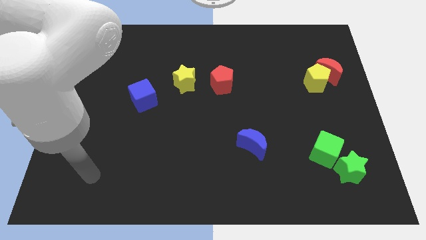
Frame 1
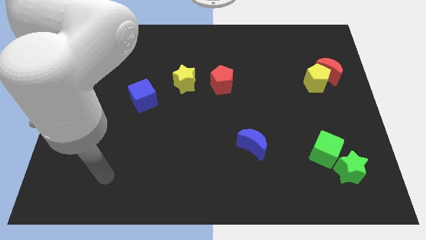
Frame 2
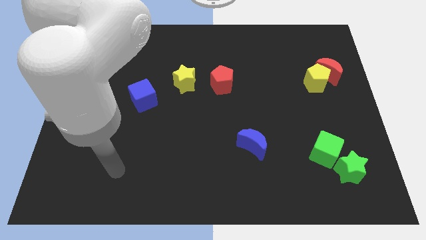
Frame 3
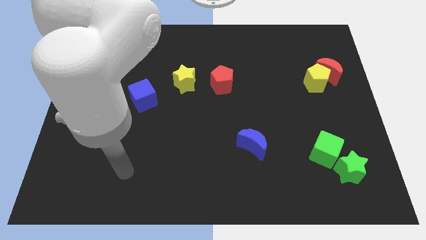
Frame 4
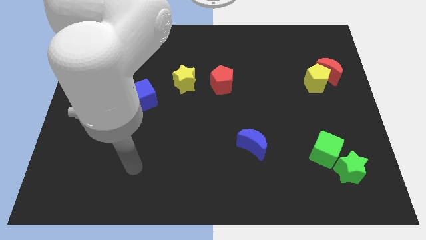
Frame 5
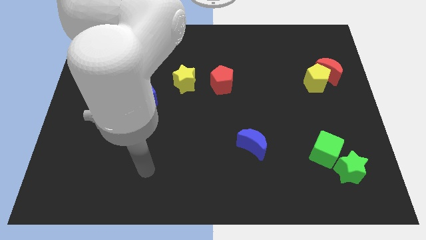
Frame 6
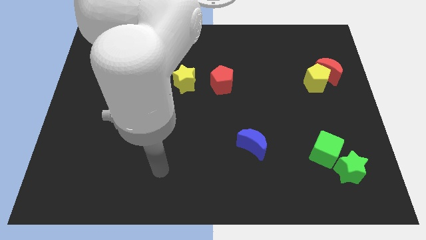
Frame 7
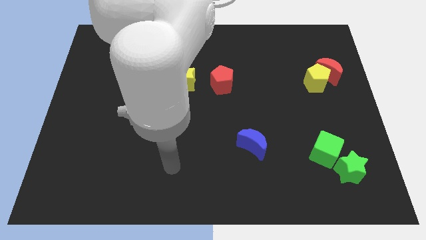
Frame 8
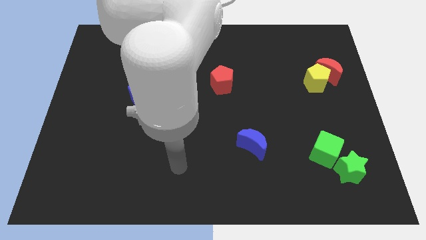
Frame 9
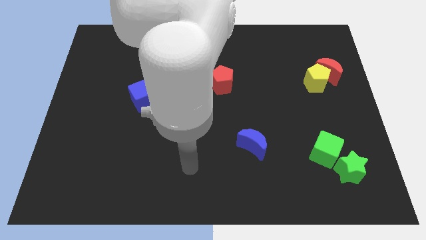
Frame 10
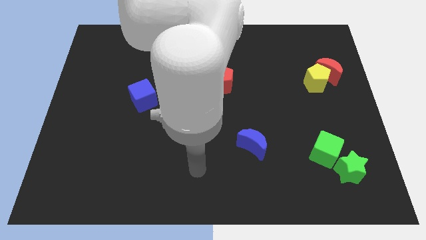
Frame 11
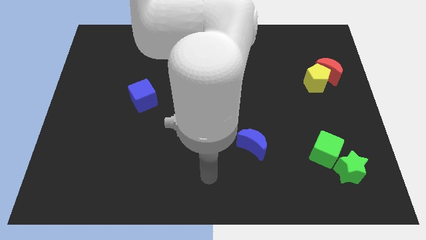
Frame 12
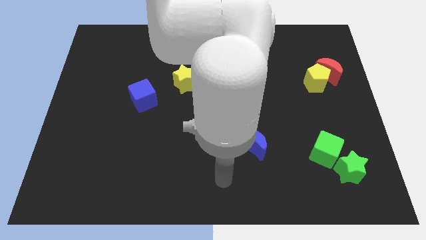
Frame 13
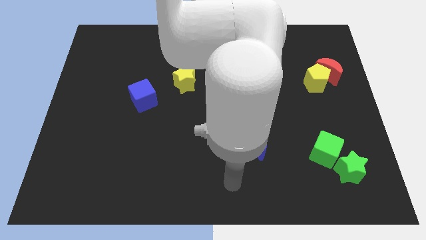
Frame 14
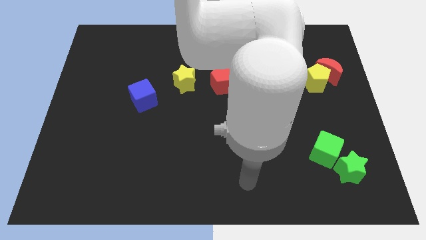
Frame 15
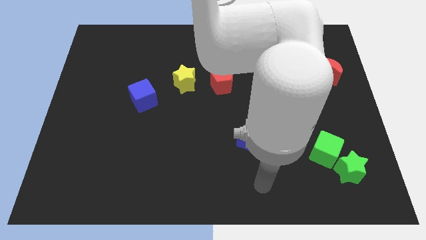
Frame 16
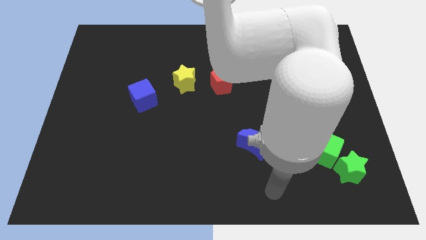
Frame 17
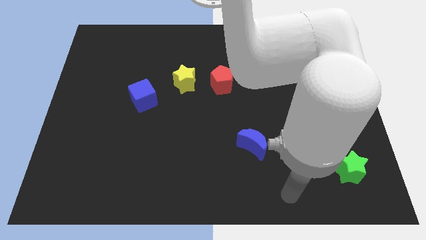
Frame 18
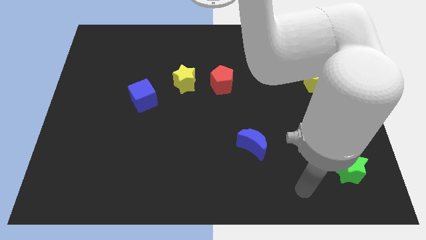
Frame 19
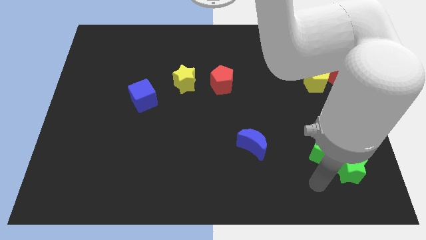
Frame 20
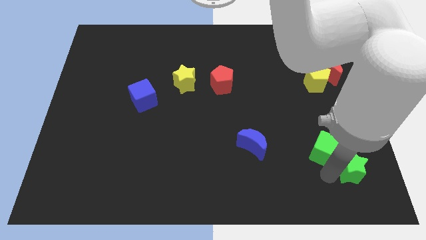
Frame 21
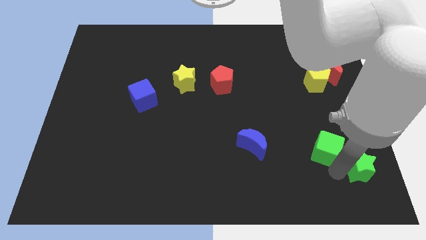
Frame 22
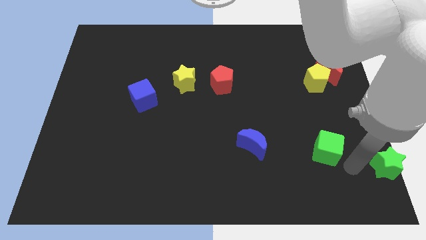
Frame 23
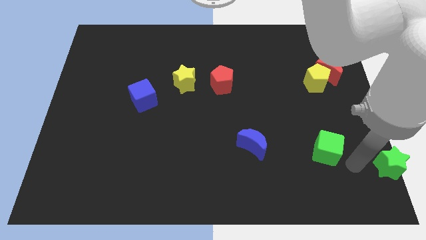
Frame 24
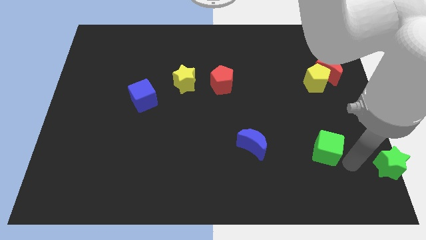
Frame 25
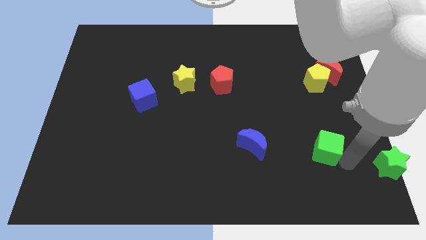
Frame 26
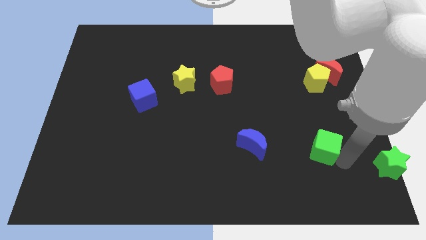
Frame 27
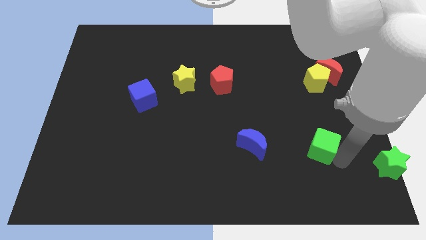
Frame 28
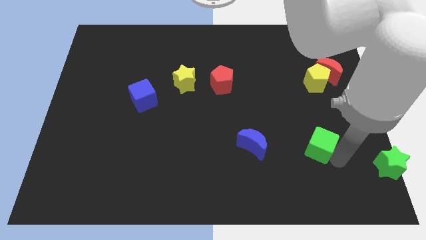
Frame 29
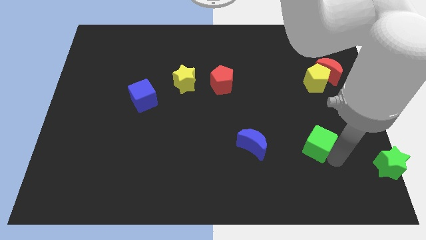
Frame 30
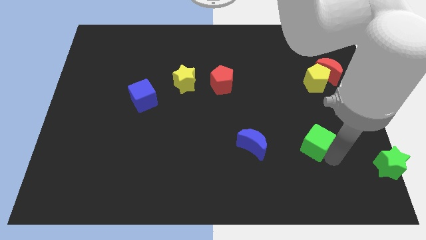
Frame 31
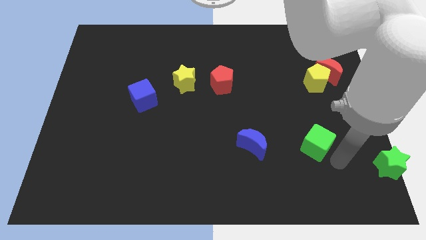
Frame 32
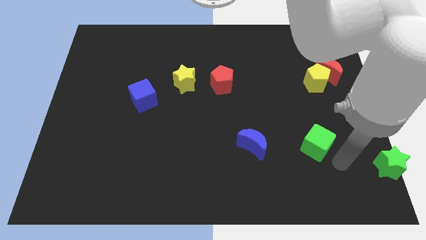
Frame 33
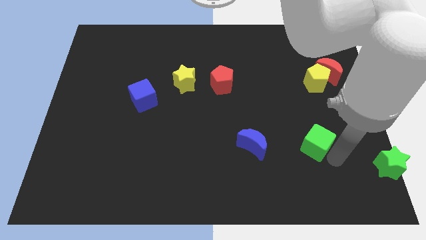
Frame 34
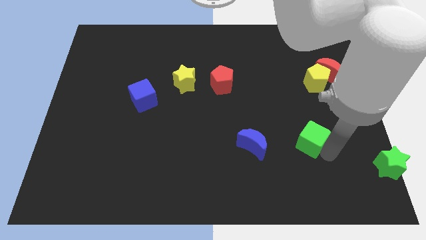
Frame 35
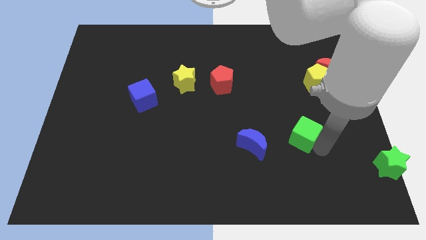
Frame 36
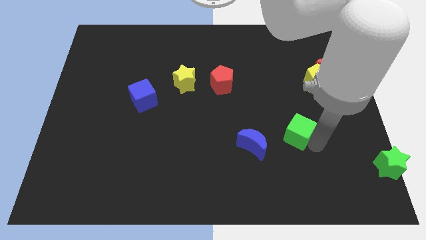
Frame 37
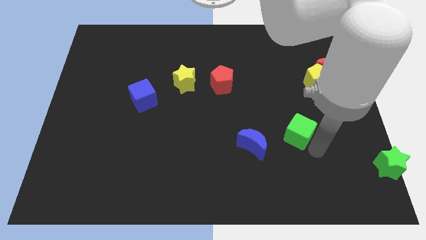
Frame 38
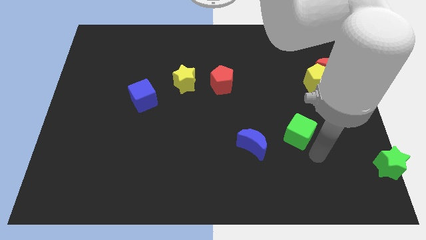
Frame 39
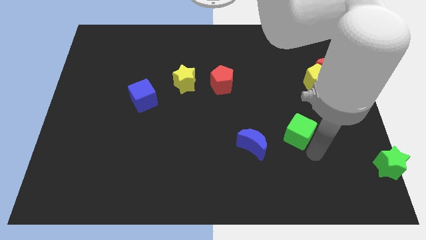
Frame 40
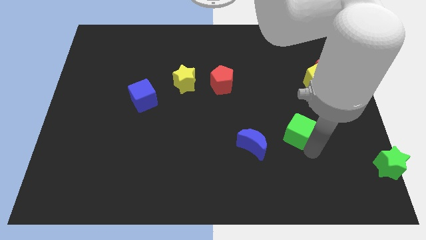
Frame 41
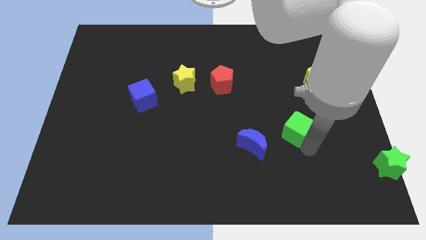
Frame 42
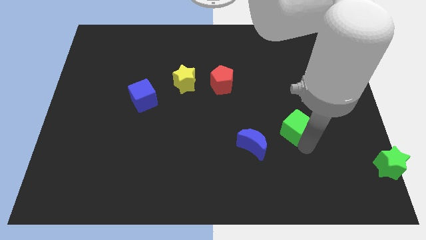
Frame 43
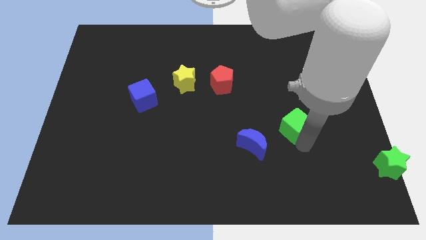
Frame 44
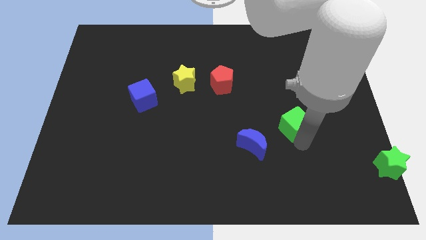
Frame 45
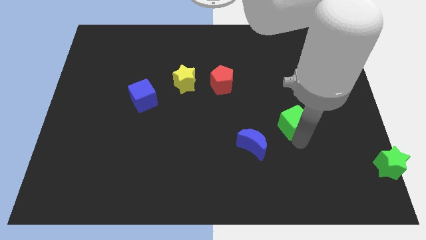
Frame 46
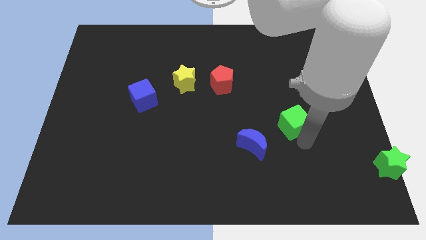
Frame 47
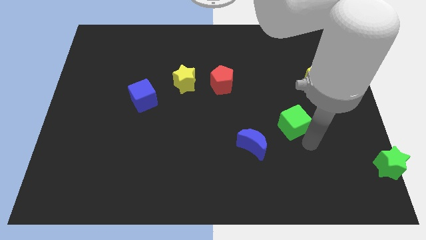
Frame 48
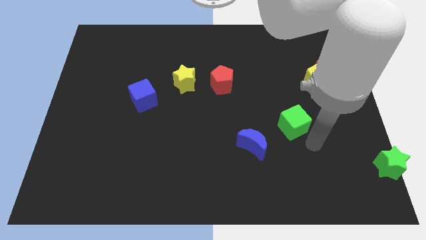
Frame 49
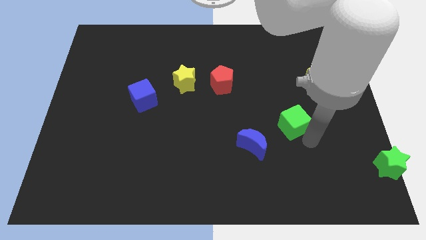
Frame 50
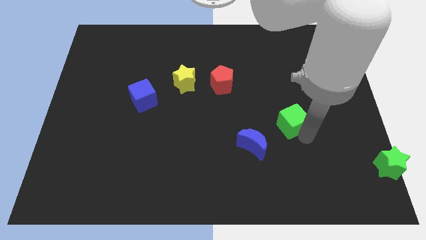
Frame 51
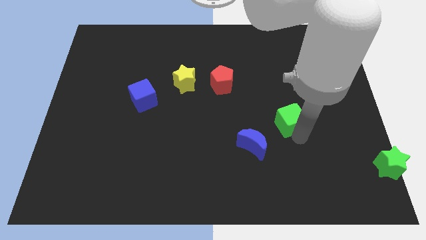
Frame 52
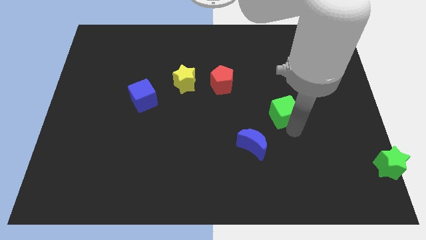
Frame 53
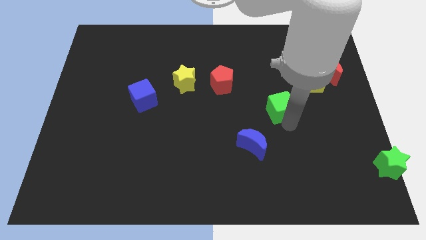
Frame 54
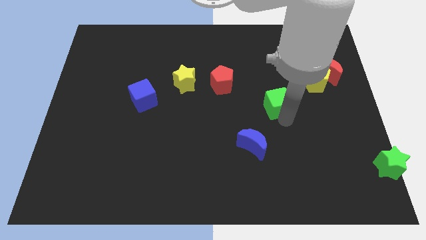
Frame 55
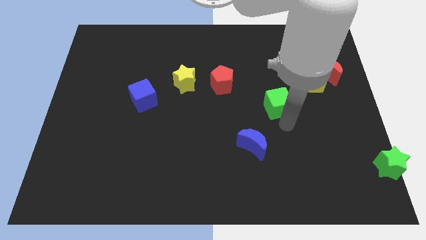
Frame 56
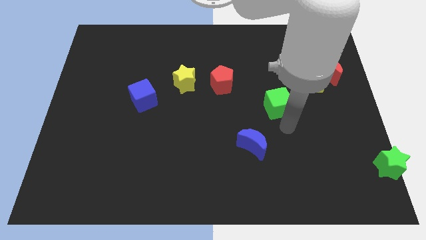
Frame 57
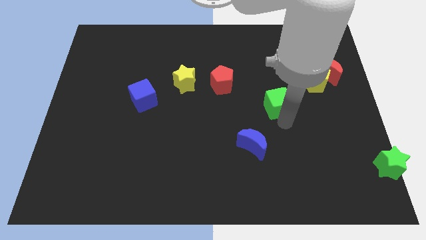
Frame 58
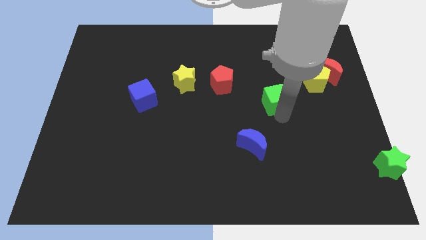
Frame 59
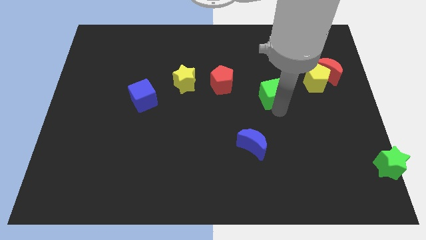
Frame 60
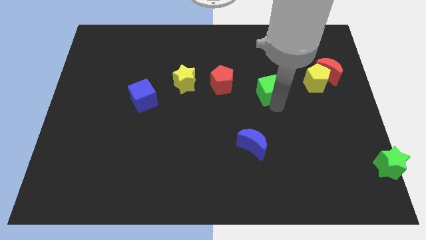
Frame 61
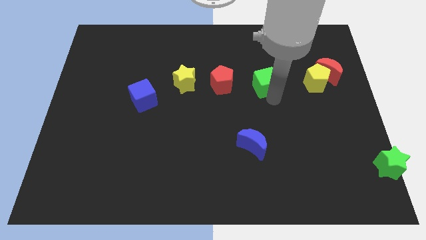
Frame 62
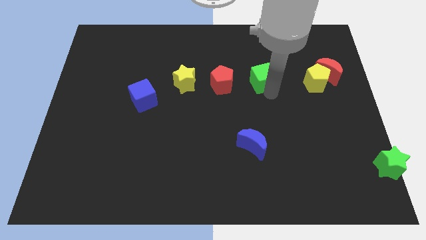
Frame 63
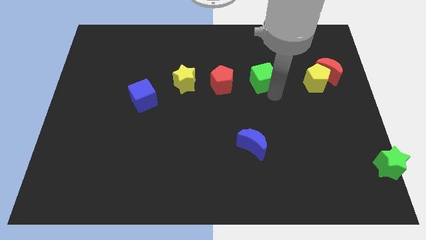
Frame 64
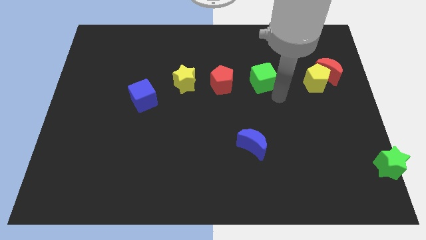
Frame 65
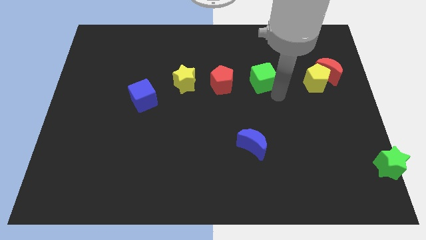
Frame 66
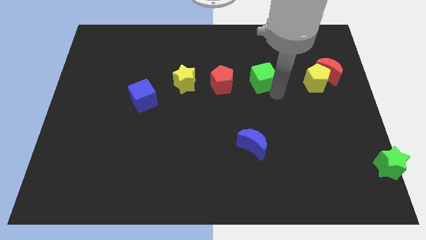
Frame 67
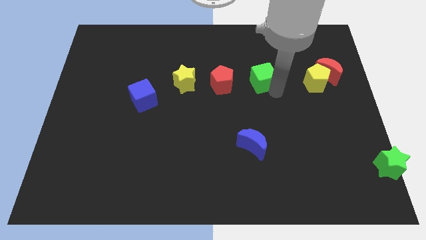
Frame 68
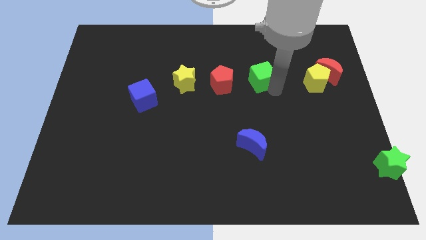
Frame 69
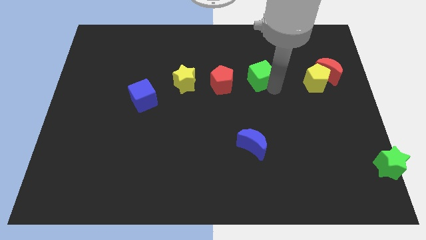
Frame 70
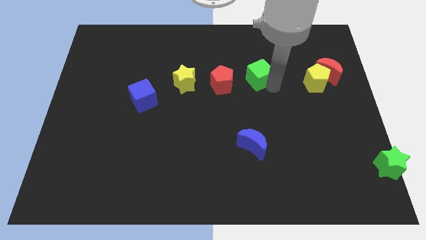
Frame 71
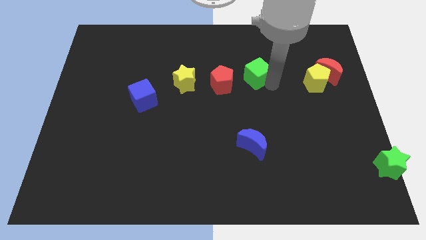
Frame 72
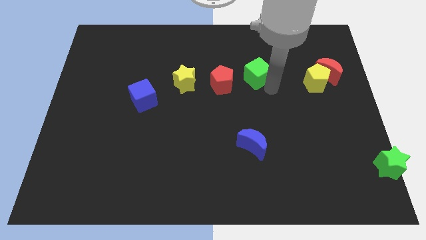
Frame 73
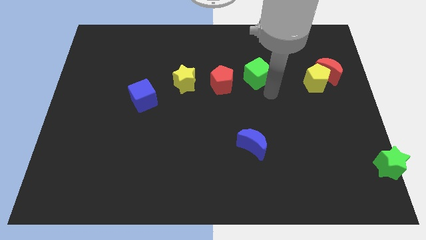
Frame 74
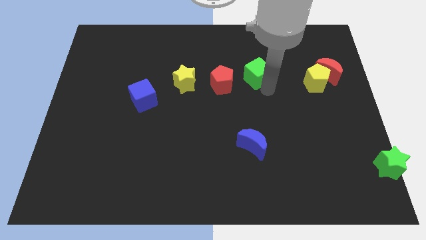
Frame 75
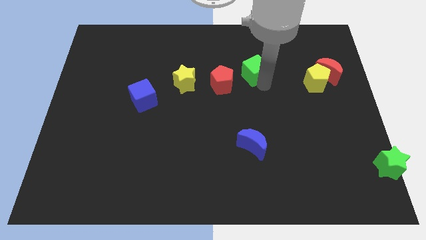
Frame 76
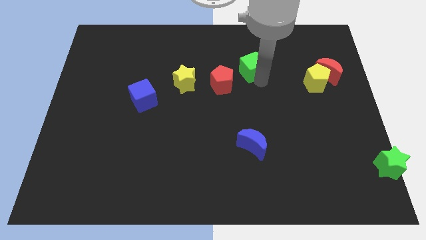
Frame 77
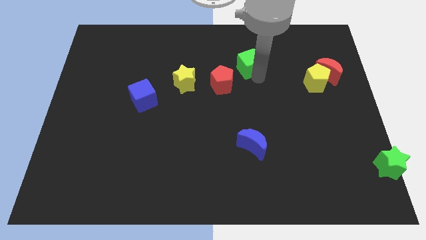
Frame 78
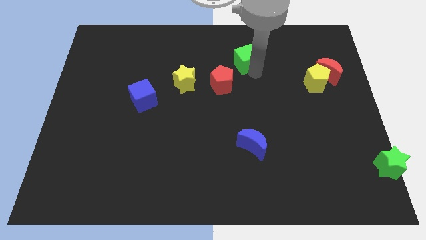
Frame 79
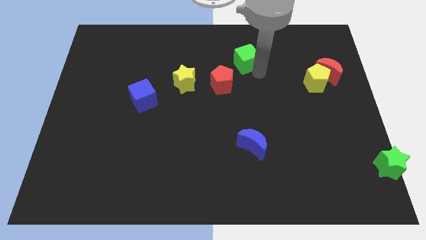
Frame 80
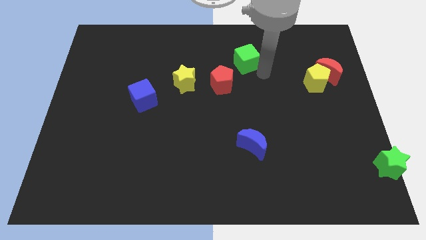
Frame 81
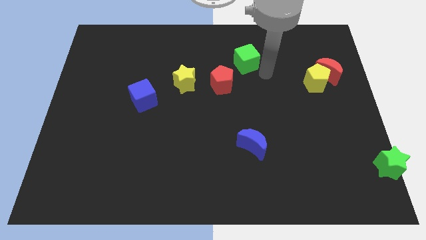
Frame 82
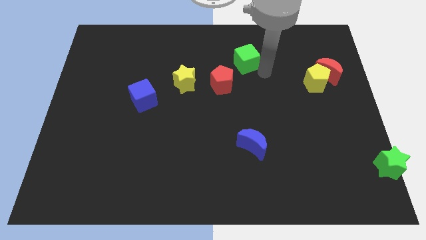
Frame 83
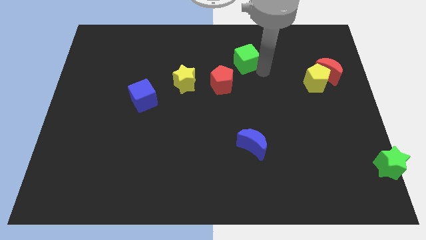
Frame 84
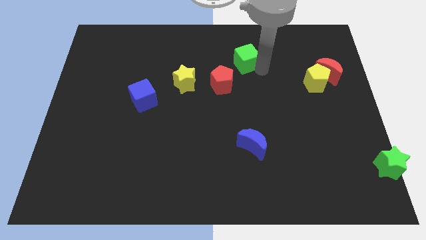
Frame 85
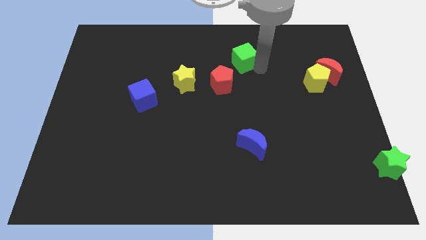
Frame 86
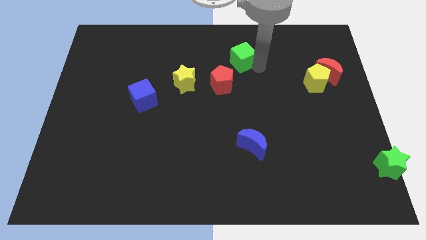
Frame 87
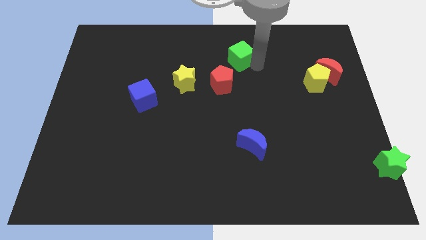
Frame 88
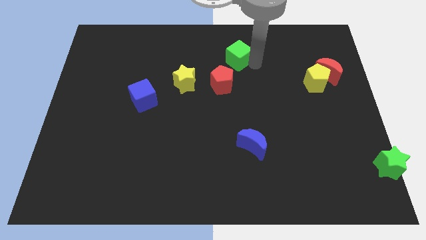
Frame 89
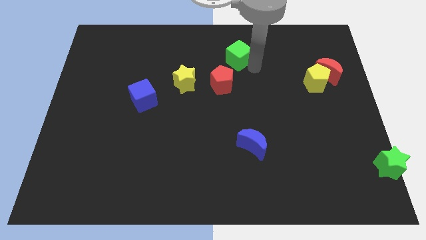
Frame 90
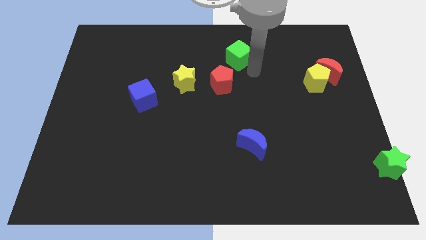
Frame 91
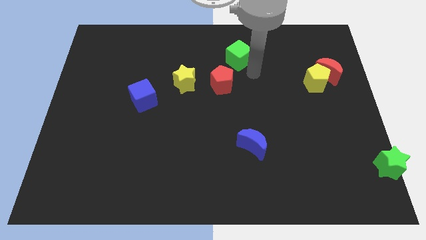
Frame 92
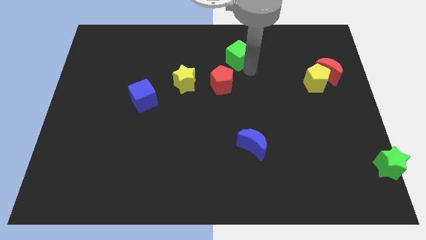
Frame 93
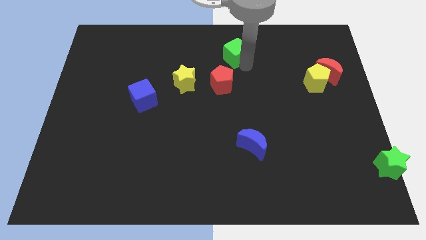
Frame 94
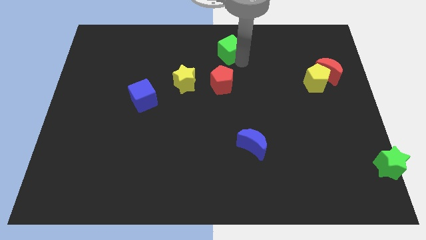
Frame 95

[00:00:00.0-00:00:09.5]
move the green cube to the top
